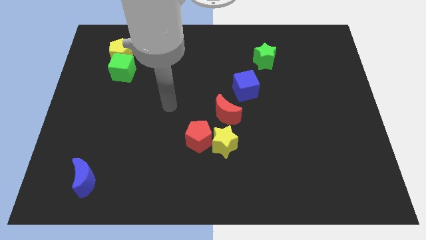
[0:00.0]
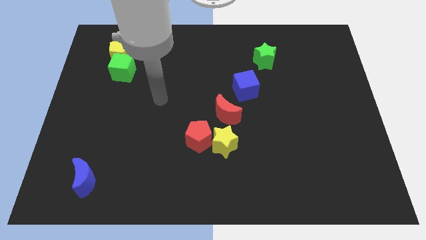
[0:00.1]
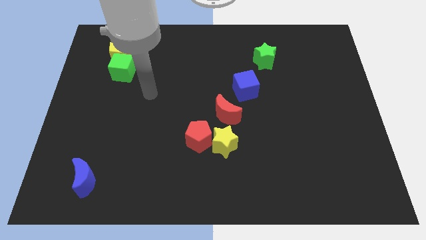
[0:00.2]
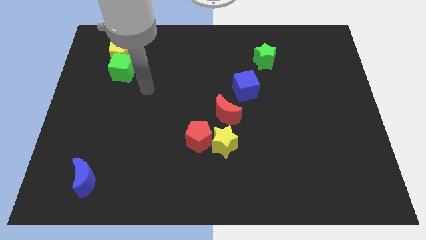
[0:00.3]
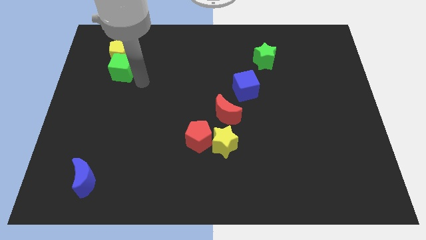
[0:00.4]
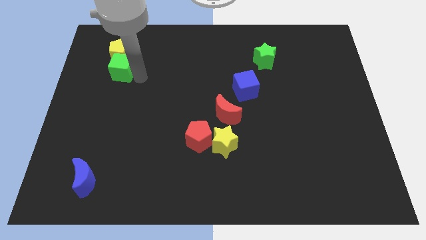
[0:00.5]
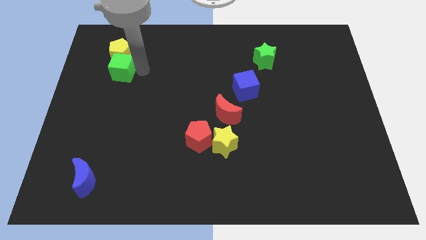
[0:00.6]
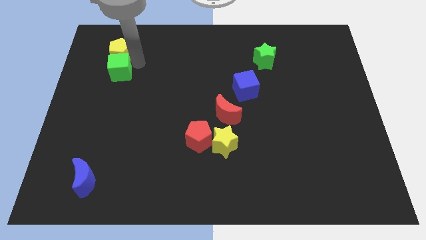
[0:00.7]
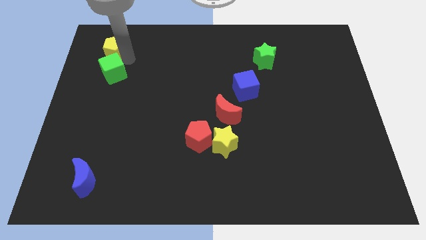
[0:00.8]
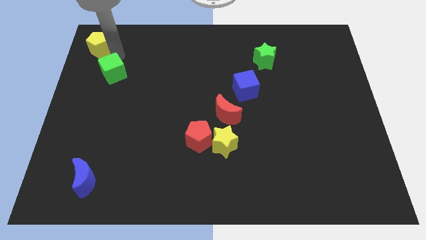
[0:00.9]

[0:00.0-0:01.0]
separate the green cube from the yellow pentagon

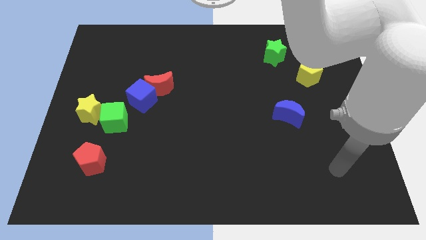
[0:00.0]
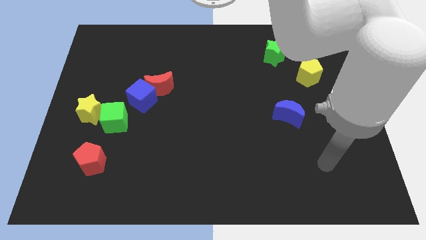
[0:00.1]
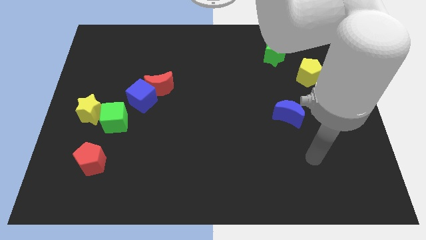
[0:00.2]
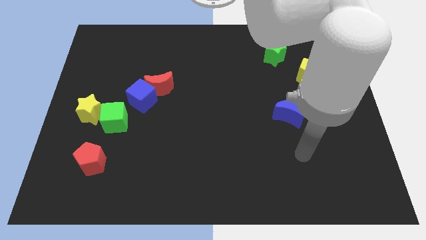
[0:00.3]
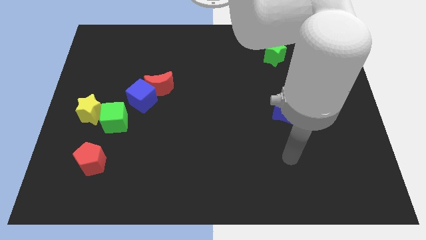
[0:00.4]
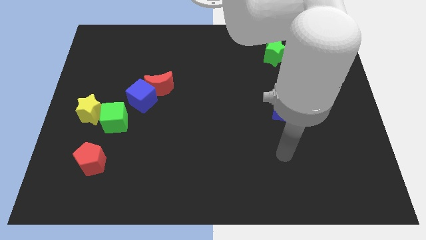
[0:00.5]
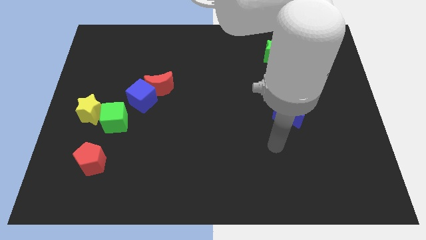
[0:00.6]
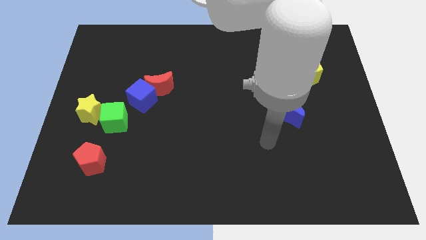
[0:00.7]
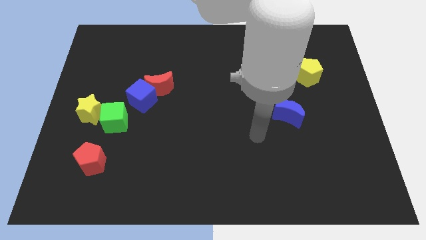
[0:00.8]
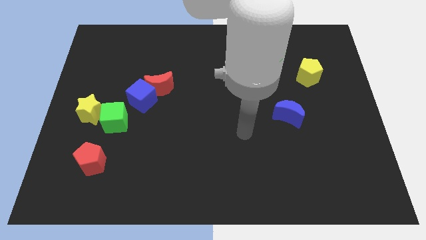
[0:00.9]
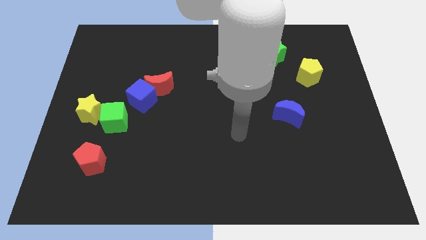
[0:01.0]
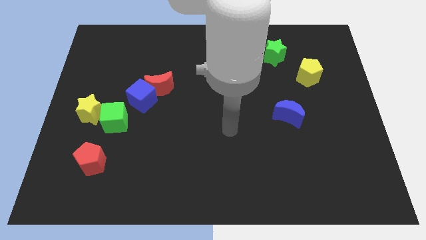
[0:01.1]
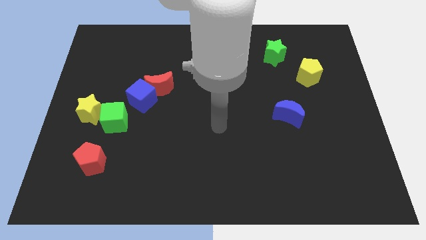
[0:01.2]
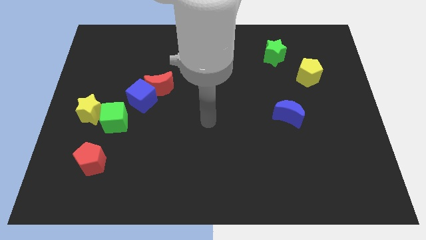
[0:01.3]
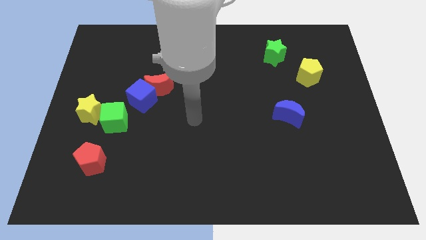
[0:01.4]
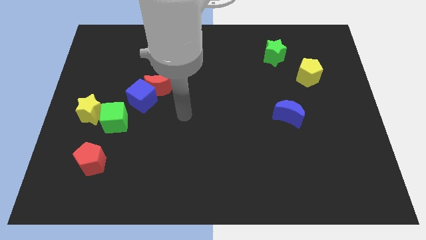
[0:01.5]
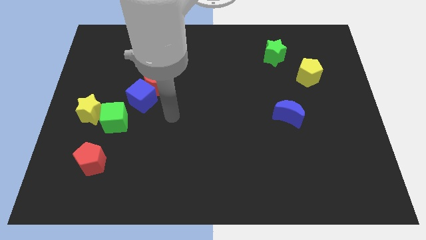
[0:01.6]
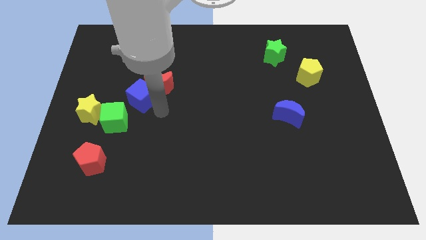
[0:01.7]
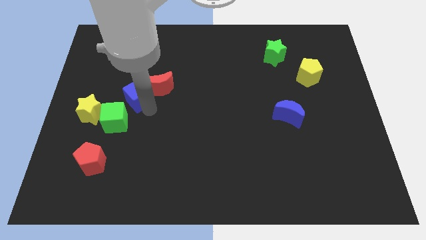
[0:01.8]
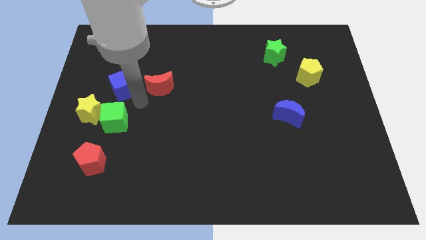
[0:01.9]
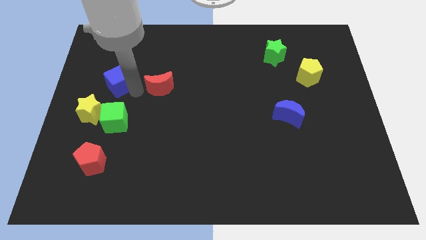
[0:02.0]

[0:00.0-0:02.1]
move the red moon away from the blue cube

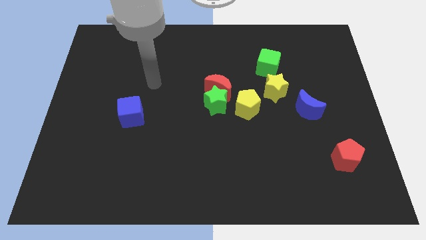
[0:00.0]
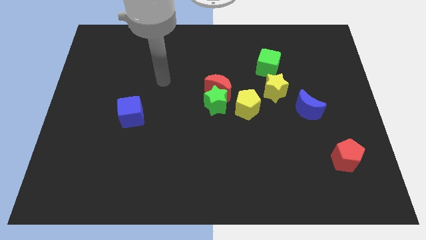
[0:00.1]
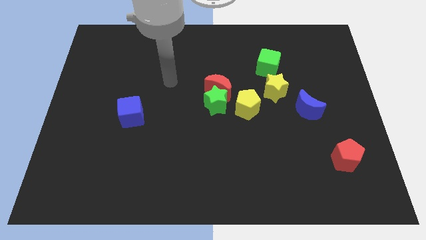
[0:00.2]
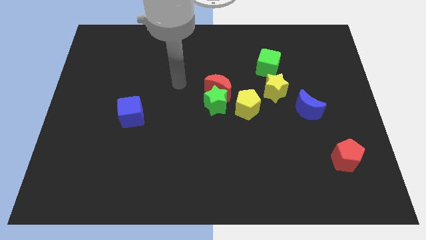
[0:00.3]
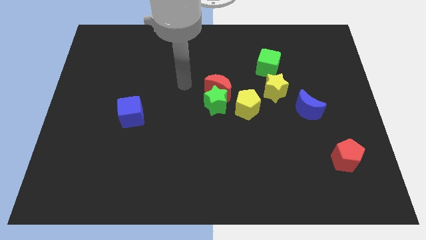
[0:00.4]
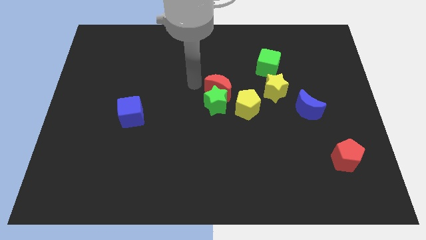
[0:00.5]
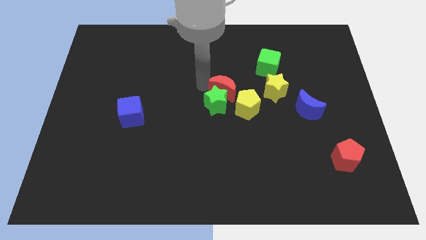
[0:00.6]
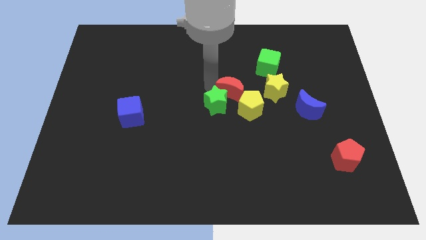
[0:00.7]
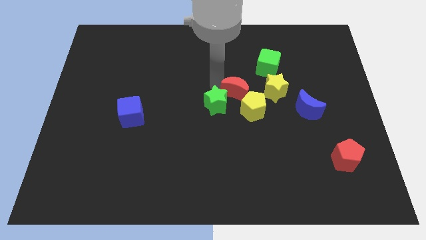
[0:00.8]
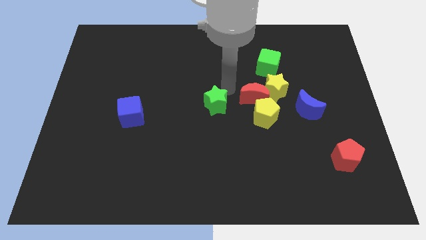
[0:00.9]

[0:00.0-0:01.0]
pull the green star apart from the red moon and yellow pentagon

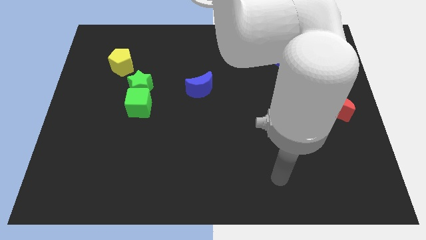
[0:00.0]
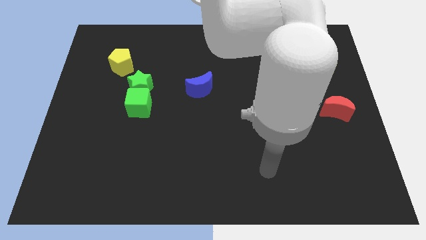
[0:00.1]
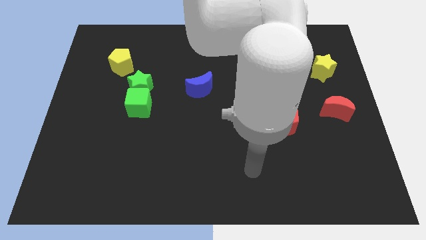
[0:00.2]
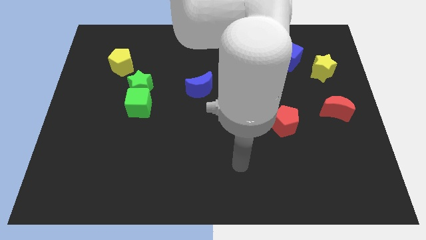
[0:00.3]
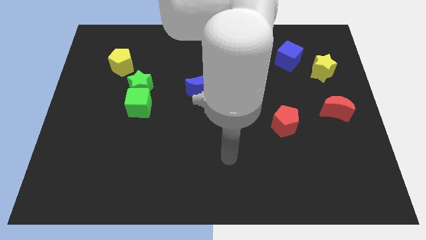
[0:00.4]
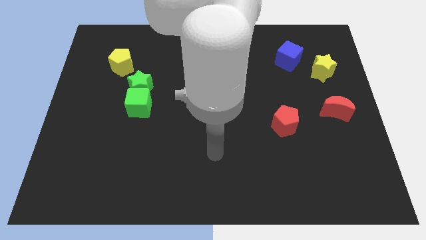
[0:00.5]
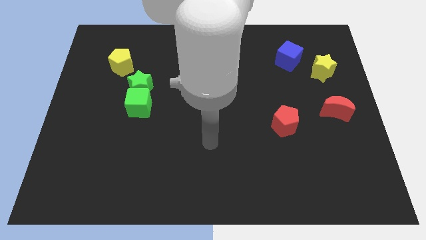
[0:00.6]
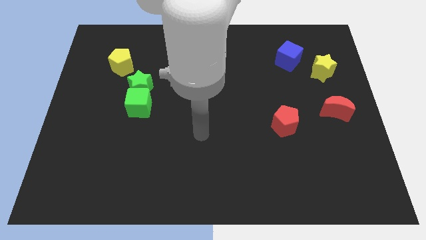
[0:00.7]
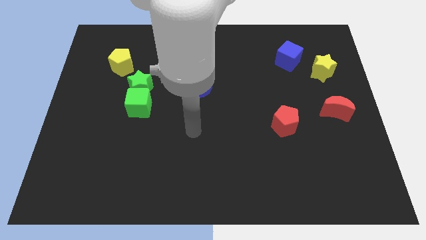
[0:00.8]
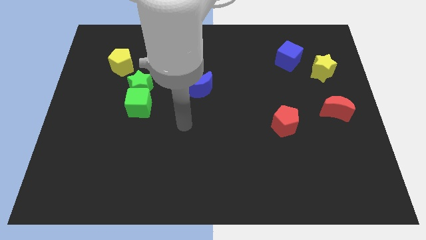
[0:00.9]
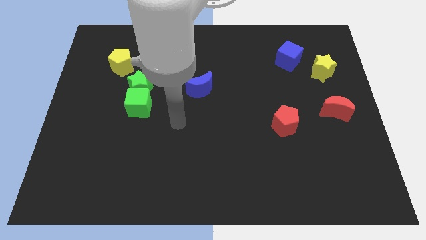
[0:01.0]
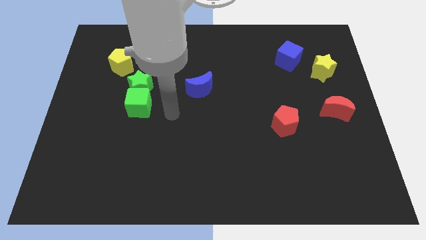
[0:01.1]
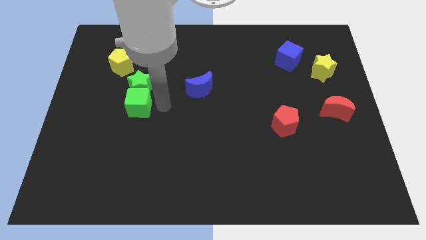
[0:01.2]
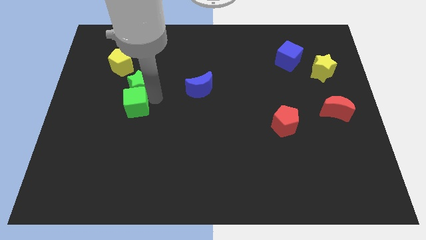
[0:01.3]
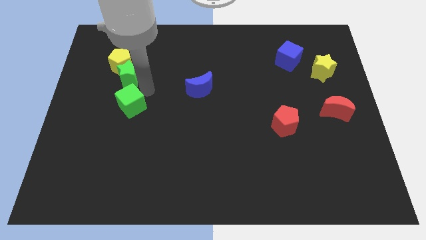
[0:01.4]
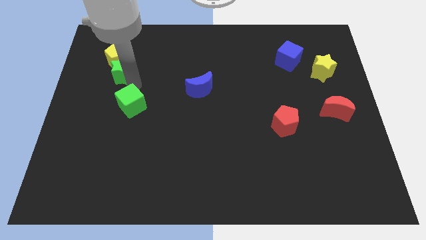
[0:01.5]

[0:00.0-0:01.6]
separate the green cube from the green star

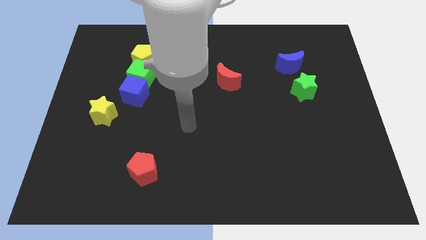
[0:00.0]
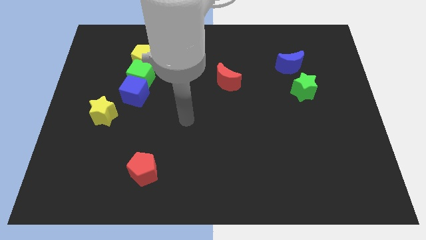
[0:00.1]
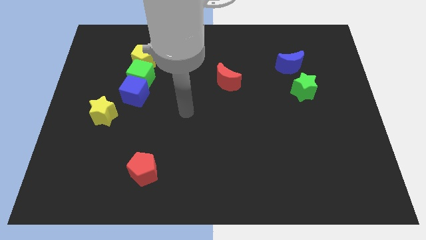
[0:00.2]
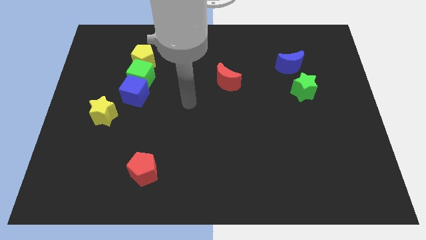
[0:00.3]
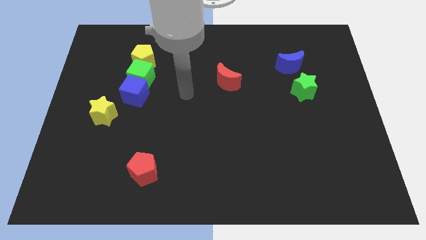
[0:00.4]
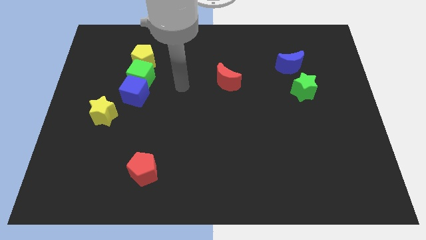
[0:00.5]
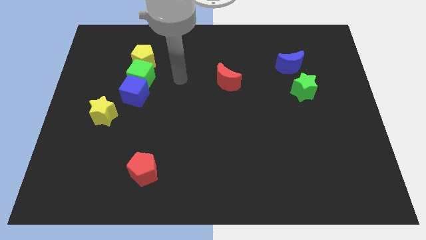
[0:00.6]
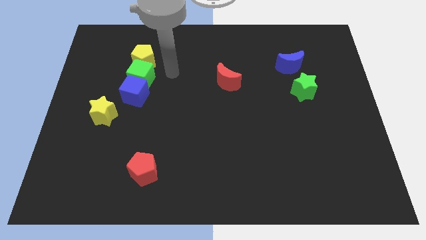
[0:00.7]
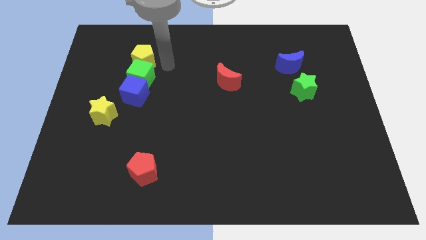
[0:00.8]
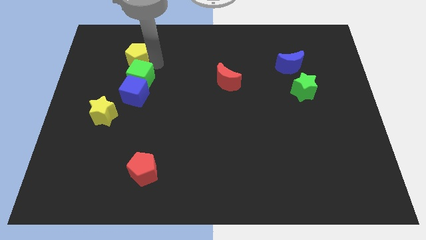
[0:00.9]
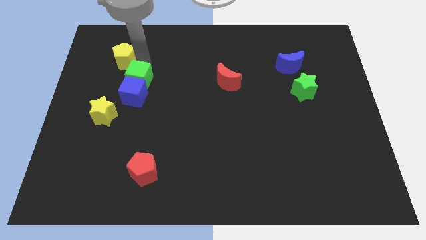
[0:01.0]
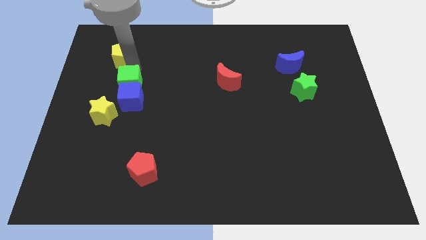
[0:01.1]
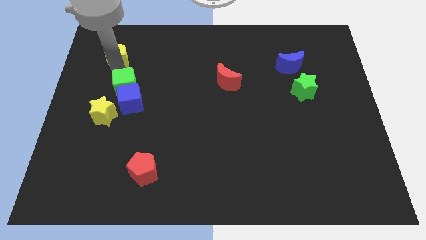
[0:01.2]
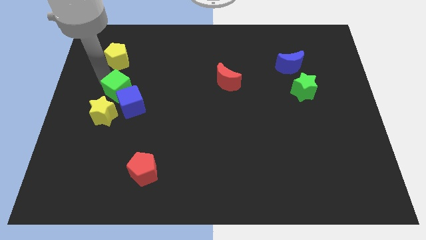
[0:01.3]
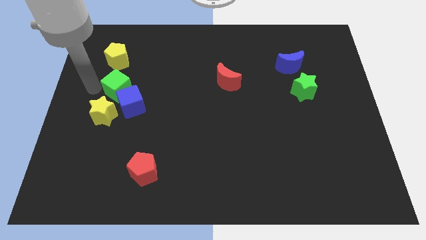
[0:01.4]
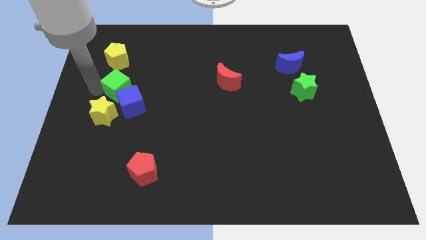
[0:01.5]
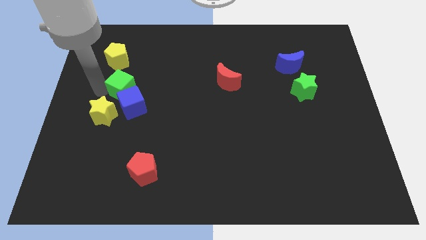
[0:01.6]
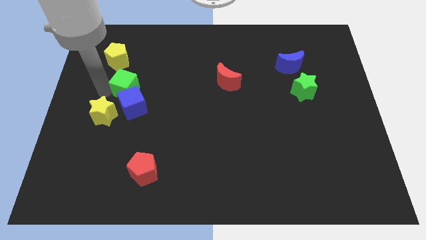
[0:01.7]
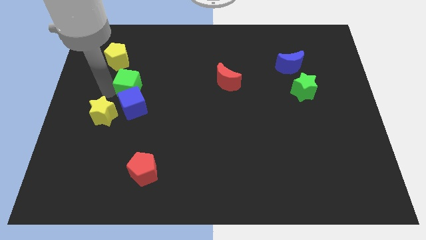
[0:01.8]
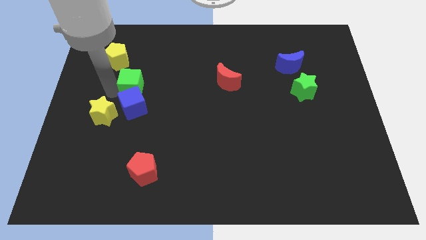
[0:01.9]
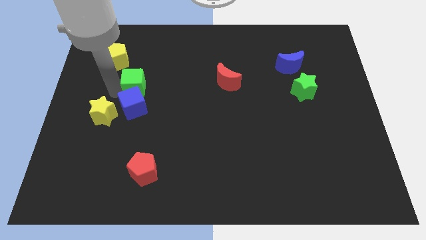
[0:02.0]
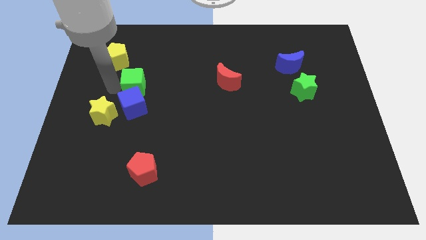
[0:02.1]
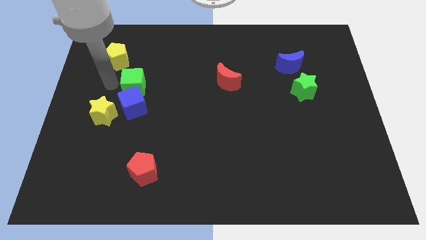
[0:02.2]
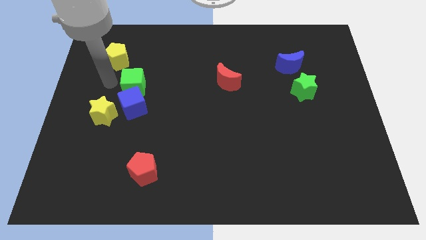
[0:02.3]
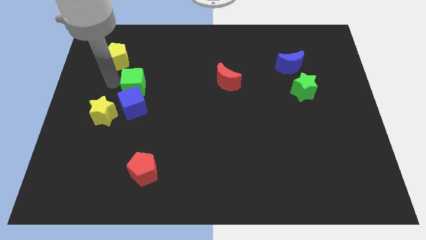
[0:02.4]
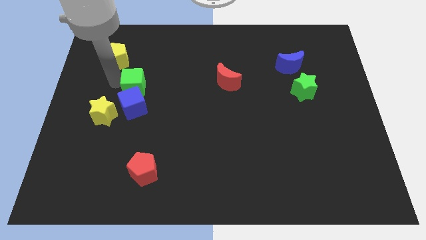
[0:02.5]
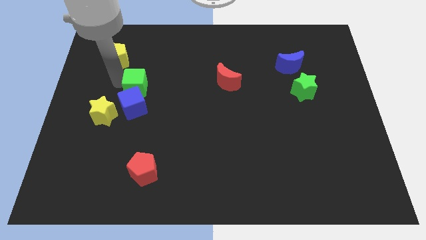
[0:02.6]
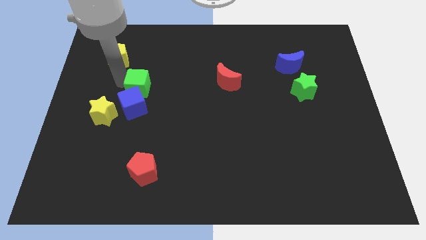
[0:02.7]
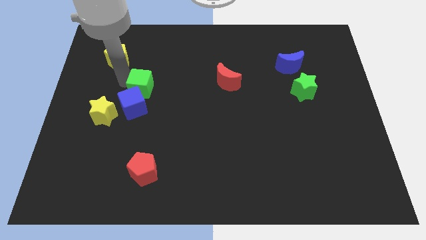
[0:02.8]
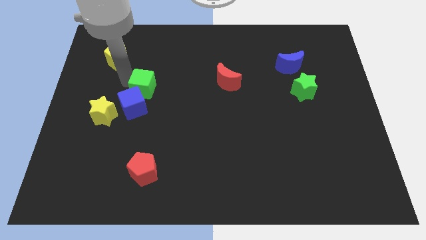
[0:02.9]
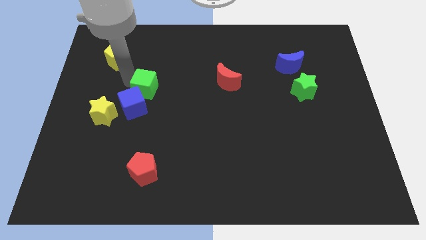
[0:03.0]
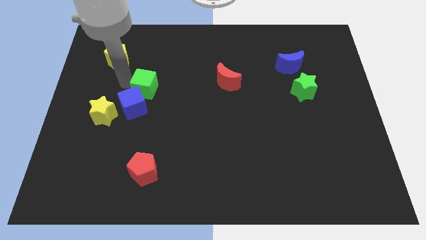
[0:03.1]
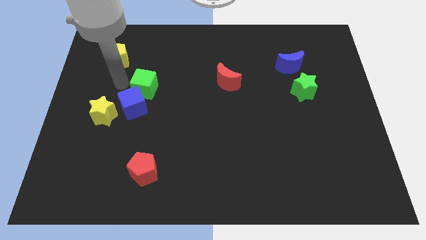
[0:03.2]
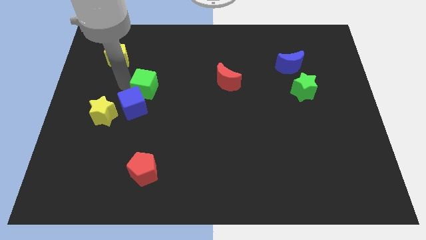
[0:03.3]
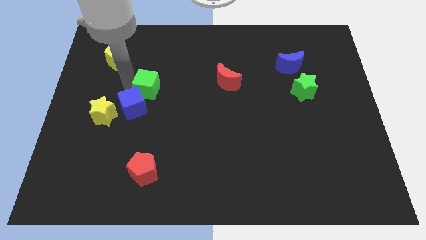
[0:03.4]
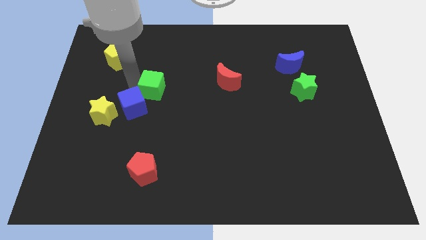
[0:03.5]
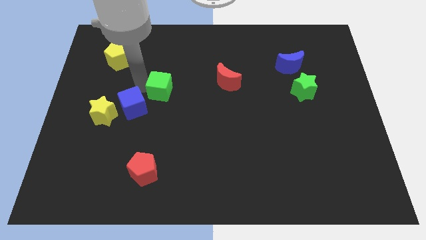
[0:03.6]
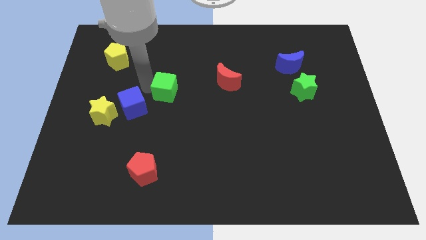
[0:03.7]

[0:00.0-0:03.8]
separate the green cube from the blue cube and yellow pentagon
